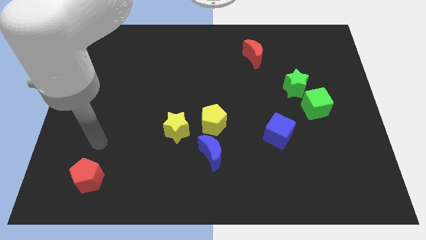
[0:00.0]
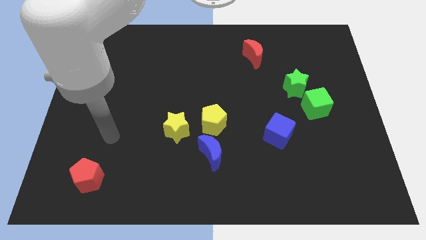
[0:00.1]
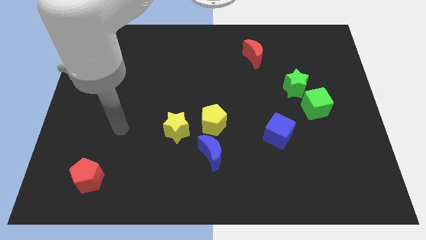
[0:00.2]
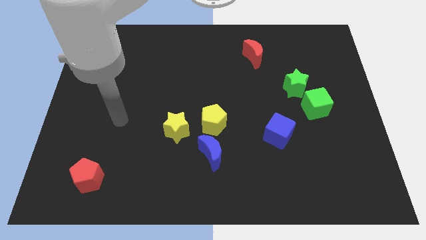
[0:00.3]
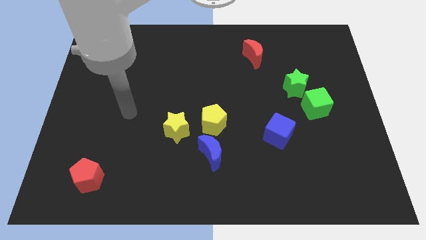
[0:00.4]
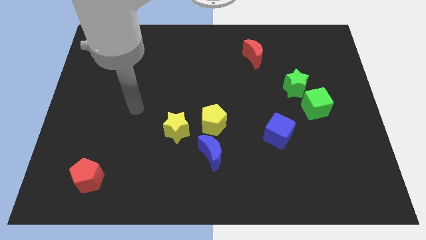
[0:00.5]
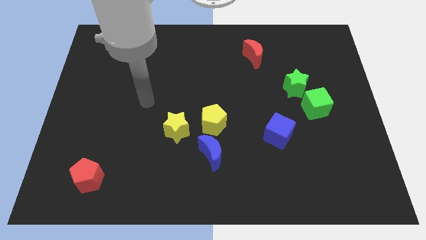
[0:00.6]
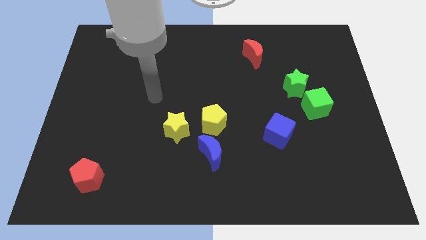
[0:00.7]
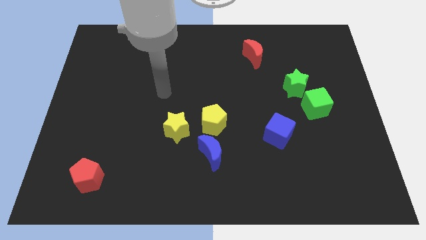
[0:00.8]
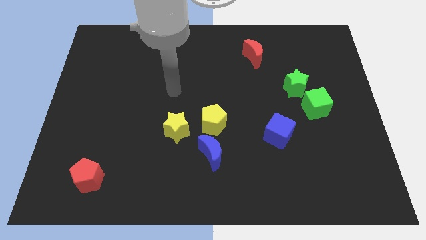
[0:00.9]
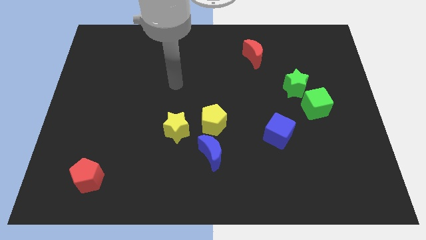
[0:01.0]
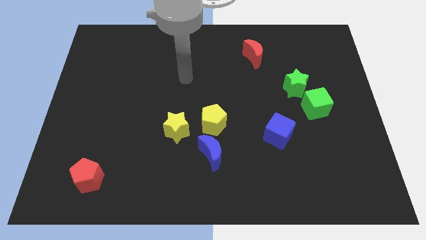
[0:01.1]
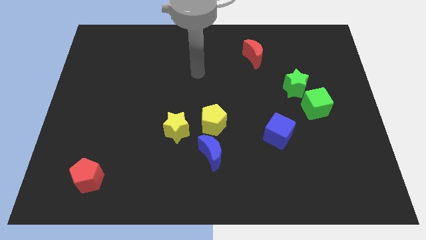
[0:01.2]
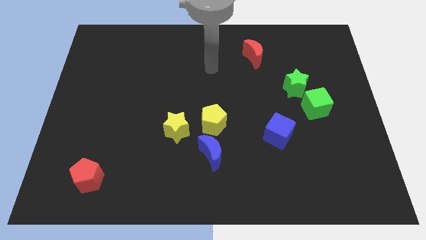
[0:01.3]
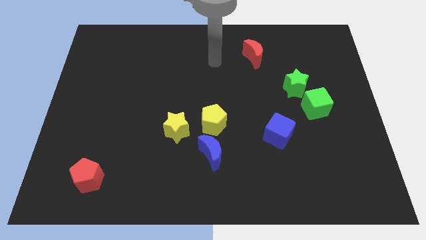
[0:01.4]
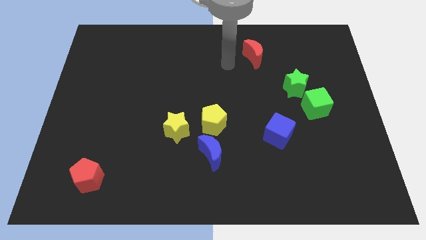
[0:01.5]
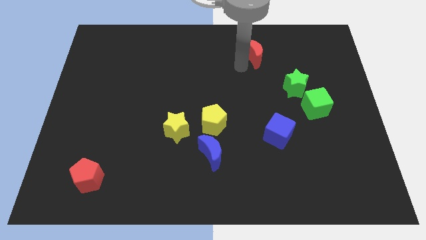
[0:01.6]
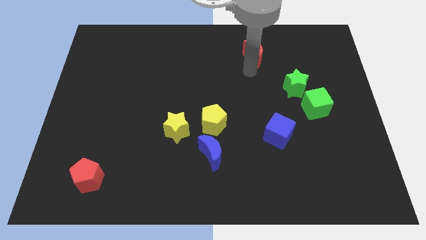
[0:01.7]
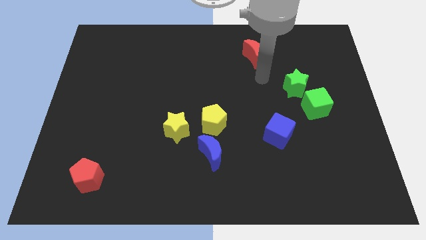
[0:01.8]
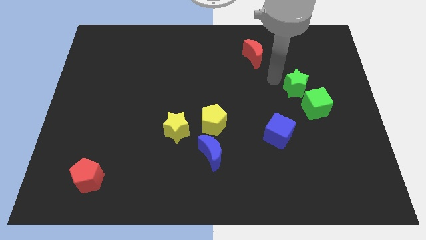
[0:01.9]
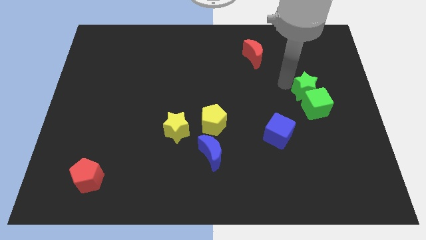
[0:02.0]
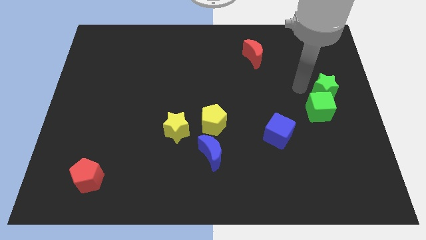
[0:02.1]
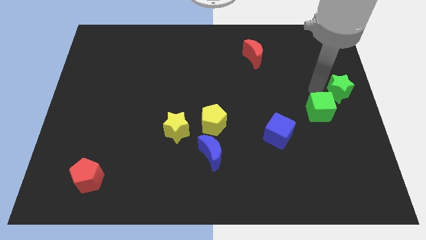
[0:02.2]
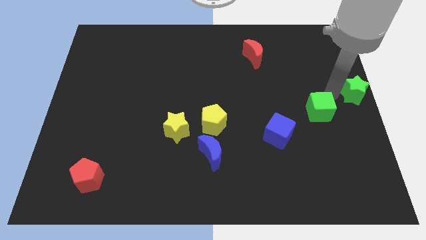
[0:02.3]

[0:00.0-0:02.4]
separate the green cube from the green star

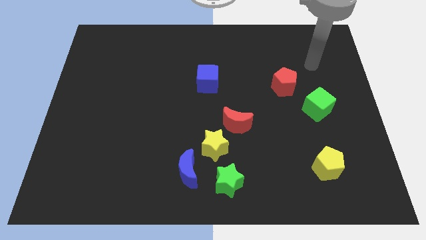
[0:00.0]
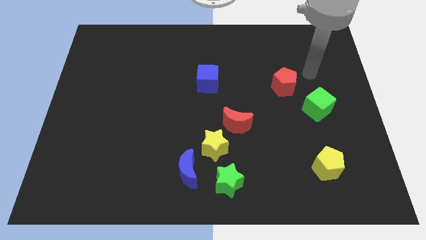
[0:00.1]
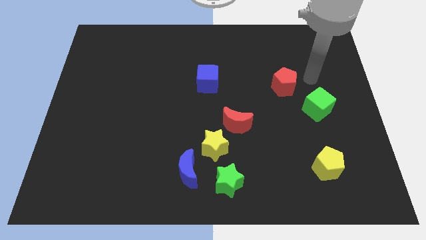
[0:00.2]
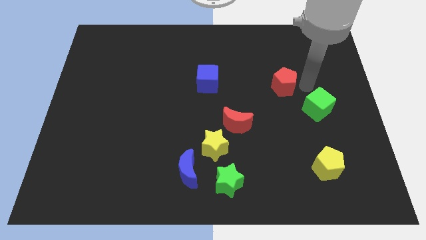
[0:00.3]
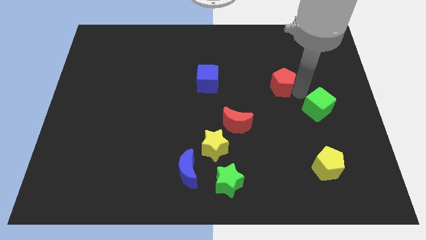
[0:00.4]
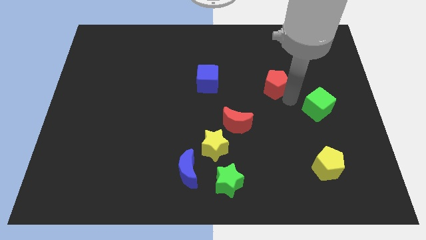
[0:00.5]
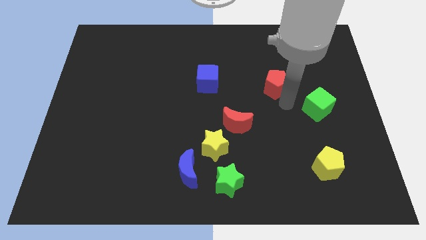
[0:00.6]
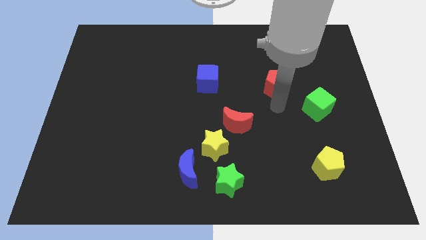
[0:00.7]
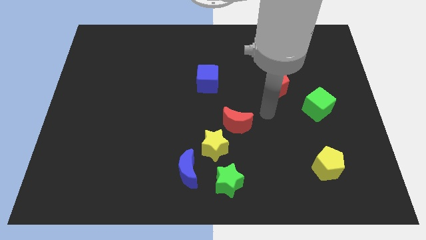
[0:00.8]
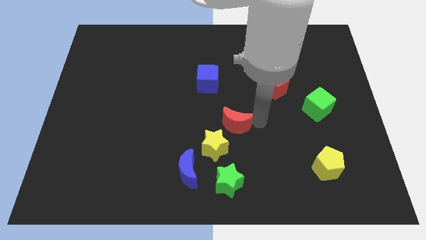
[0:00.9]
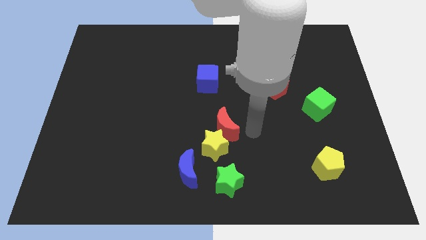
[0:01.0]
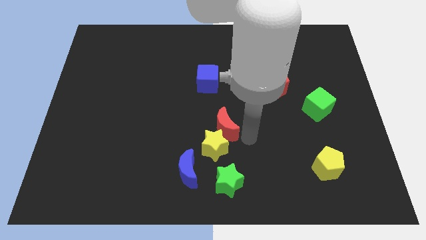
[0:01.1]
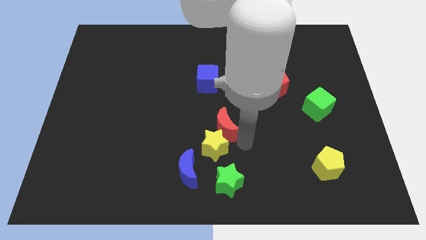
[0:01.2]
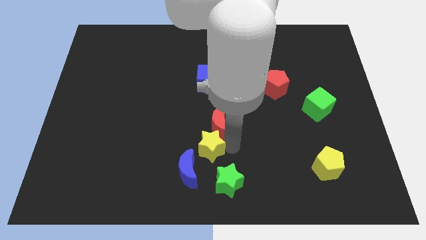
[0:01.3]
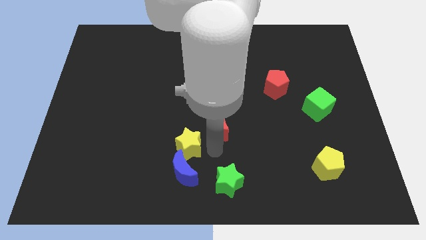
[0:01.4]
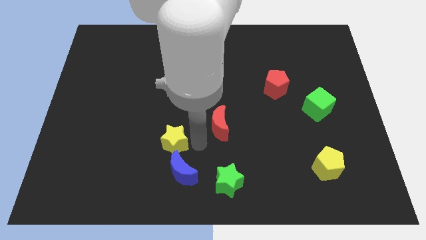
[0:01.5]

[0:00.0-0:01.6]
separate the red moon from the yellow star

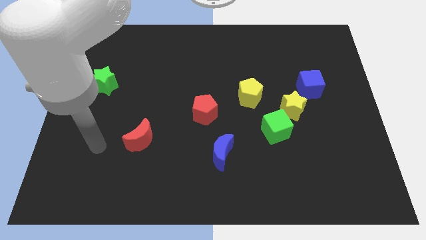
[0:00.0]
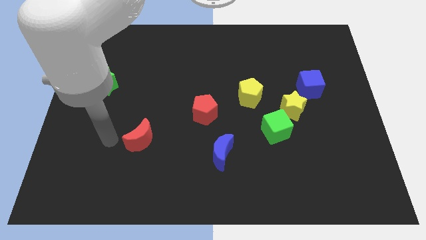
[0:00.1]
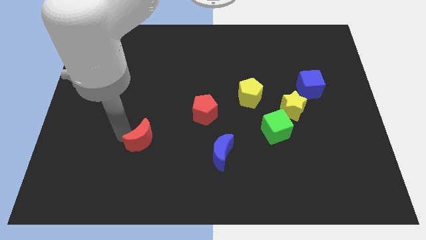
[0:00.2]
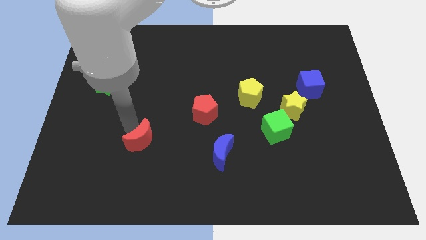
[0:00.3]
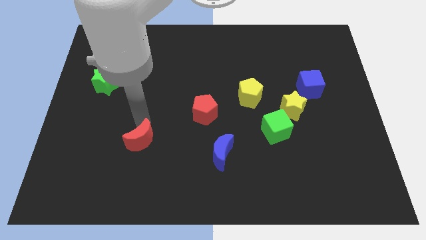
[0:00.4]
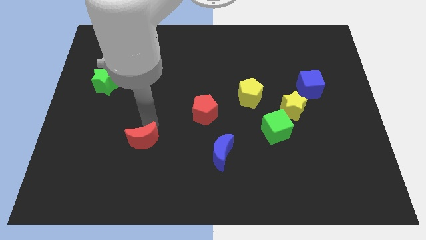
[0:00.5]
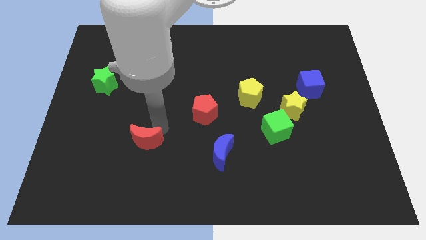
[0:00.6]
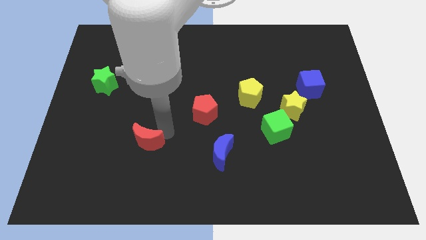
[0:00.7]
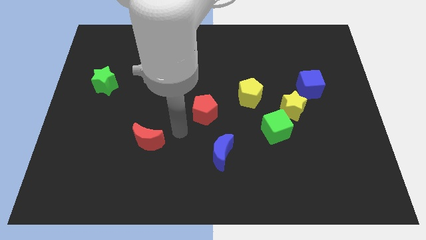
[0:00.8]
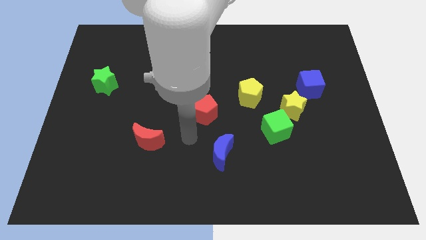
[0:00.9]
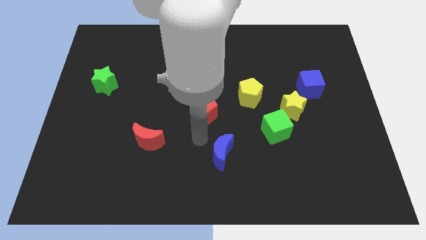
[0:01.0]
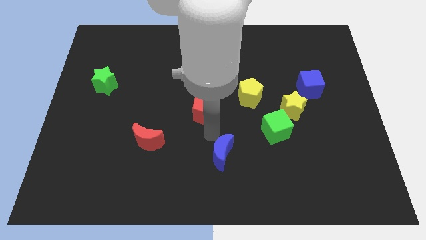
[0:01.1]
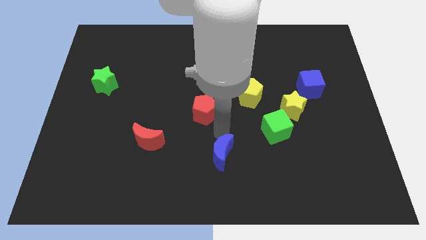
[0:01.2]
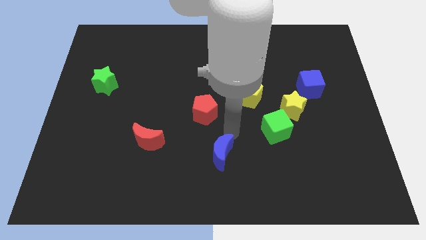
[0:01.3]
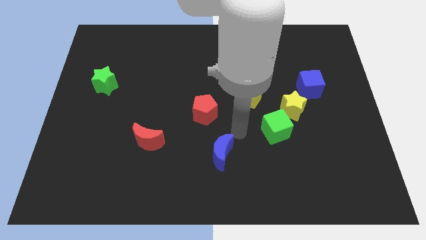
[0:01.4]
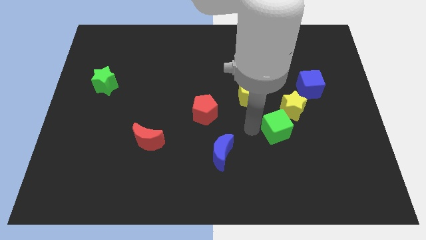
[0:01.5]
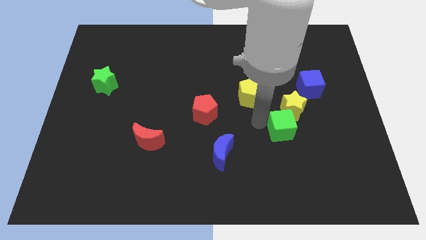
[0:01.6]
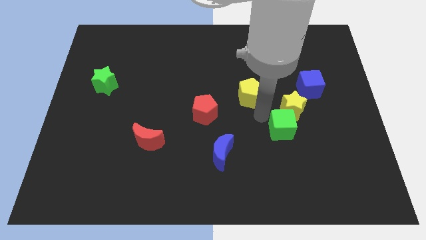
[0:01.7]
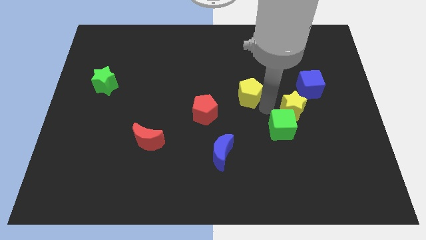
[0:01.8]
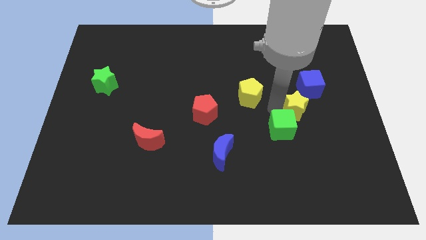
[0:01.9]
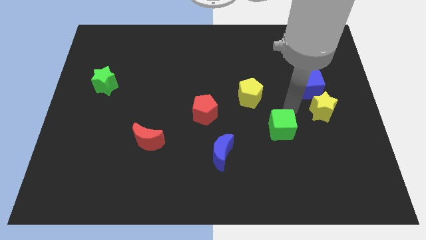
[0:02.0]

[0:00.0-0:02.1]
move the green cube away from the yellow star

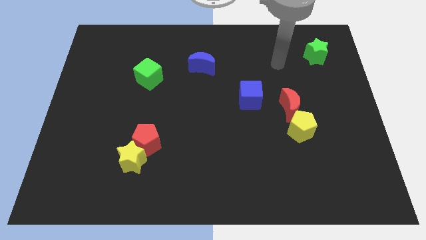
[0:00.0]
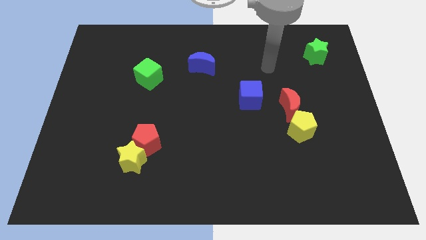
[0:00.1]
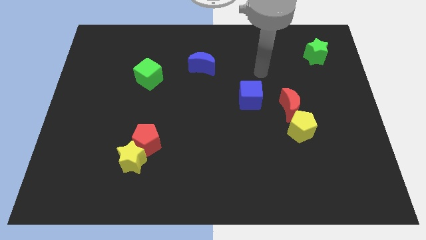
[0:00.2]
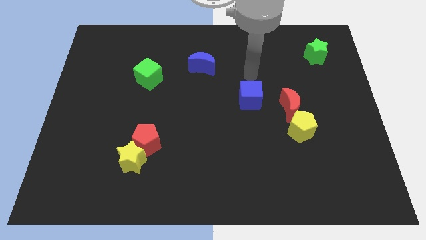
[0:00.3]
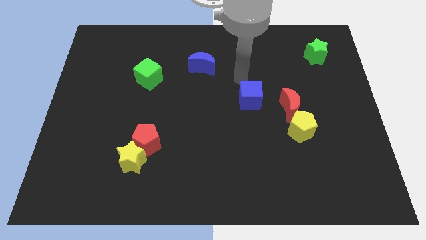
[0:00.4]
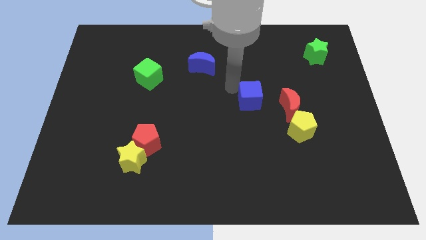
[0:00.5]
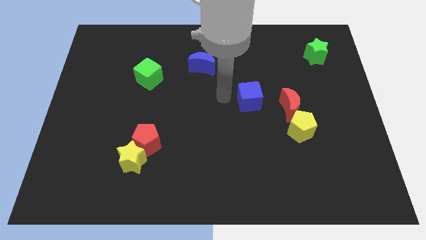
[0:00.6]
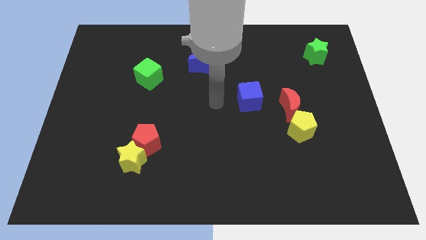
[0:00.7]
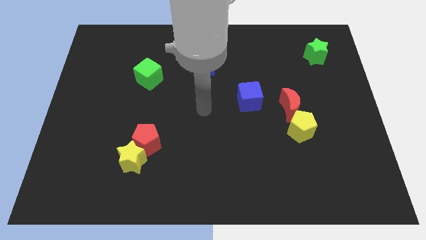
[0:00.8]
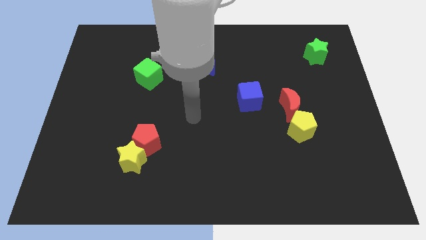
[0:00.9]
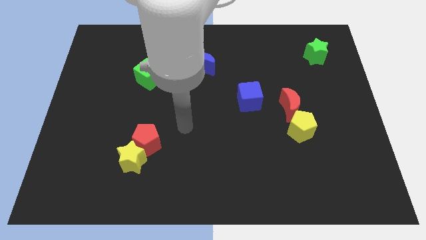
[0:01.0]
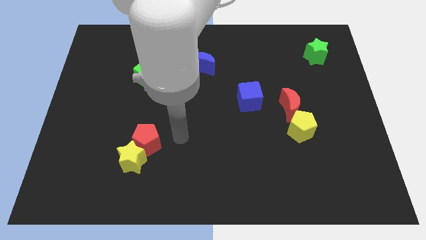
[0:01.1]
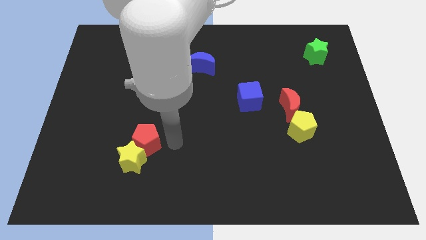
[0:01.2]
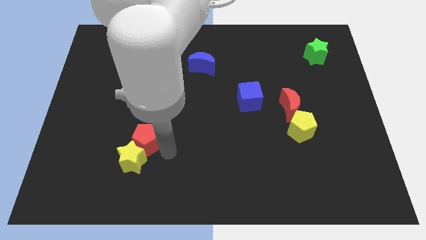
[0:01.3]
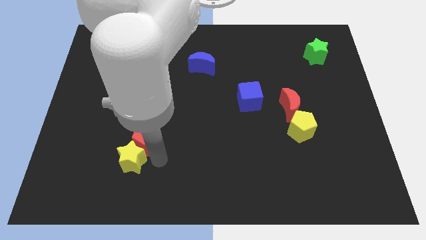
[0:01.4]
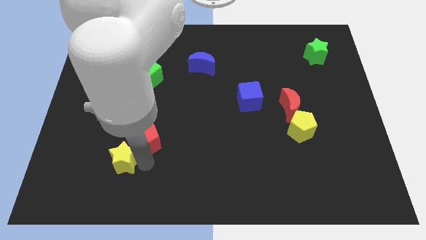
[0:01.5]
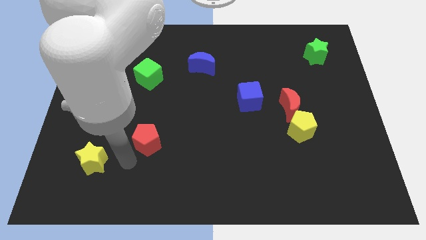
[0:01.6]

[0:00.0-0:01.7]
pull the red pentagon apart from the yellow star

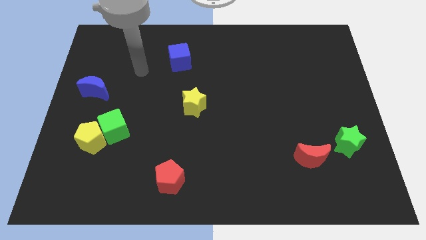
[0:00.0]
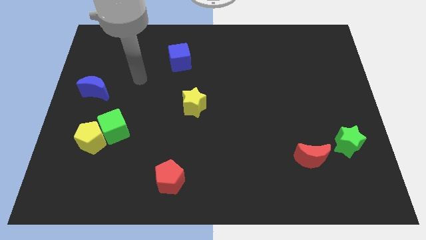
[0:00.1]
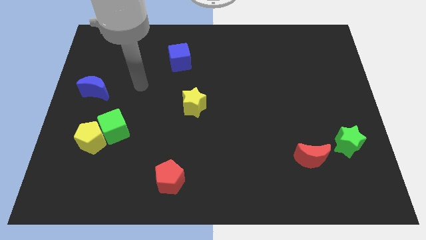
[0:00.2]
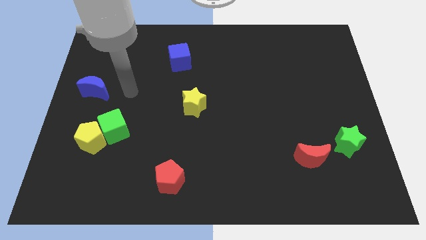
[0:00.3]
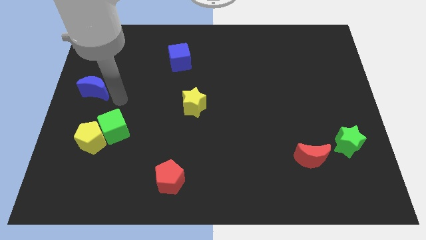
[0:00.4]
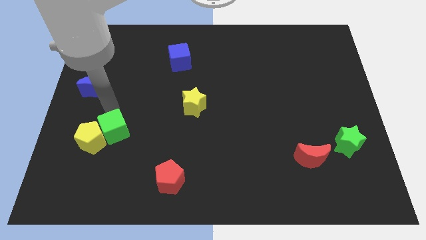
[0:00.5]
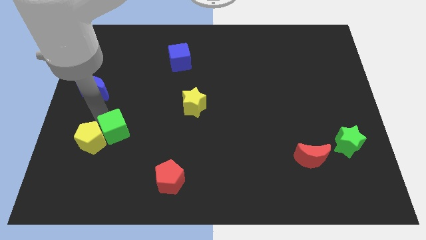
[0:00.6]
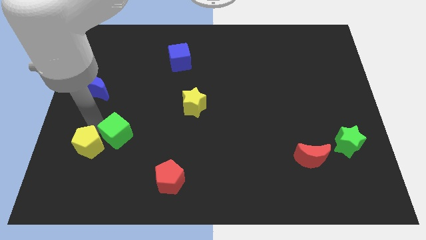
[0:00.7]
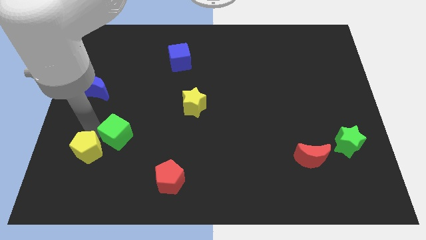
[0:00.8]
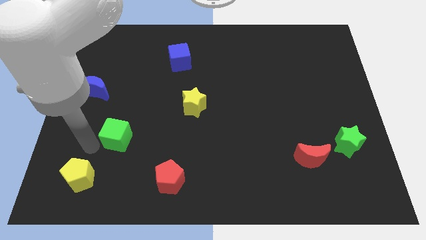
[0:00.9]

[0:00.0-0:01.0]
separate the green cube from the yellow pentagon

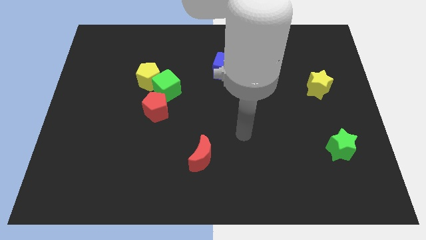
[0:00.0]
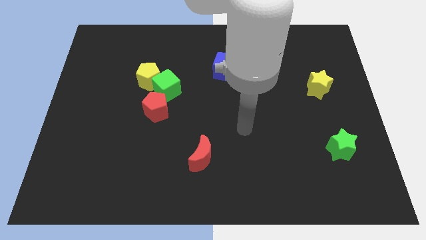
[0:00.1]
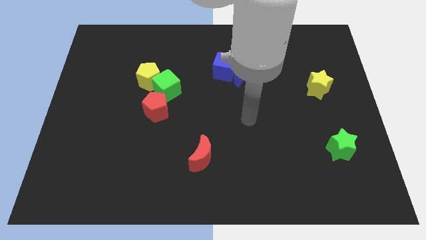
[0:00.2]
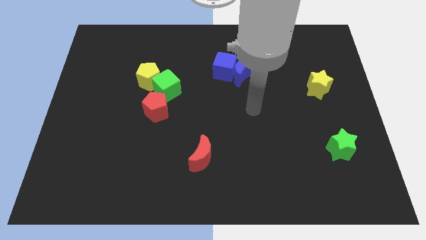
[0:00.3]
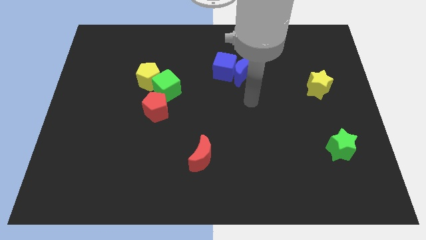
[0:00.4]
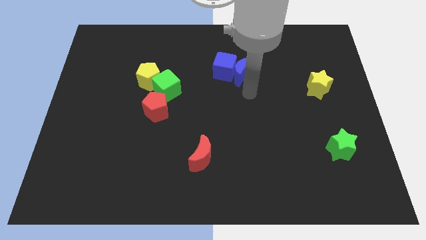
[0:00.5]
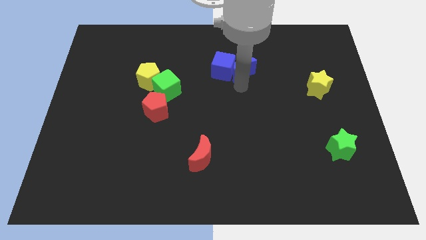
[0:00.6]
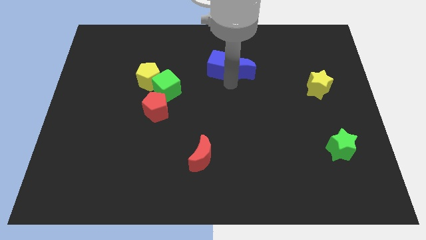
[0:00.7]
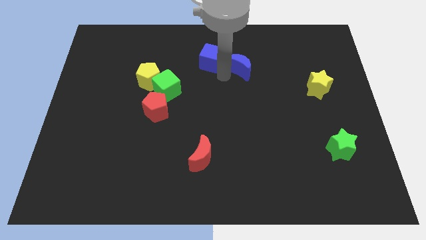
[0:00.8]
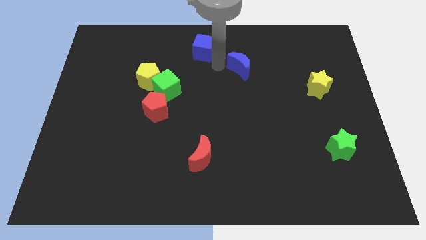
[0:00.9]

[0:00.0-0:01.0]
separate the blue moon from the blue cube
